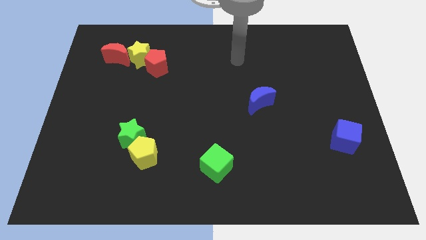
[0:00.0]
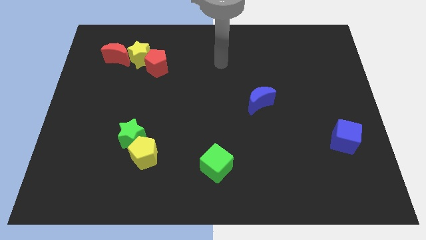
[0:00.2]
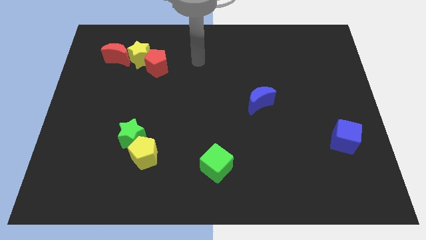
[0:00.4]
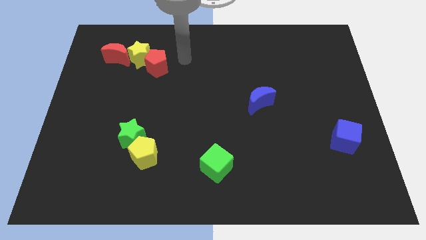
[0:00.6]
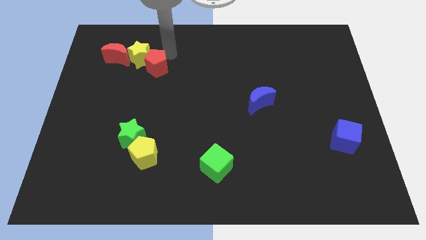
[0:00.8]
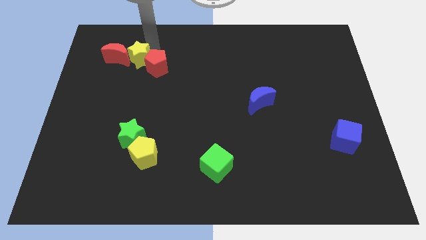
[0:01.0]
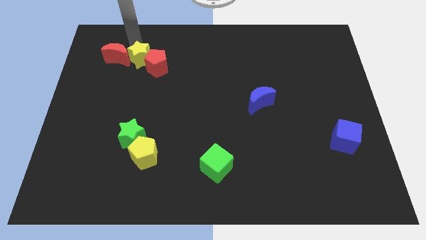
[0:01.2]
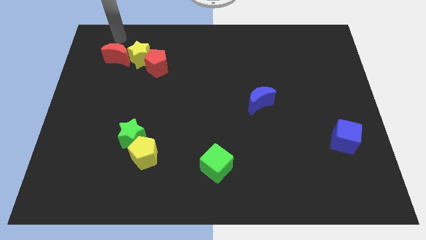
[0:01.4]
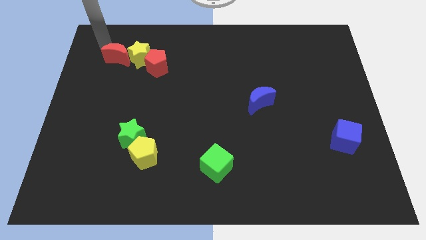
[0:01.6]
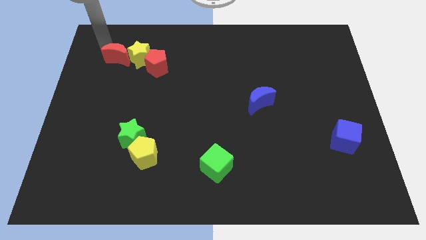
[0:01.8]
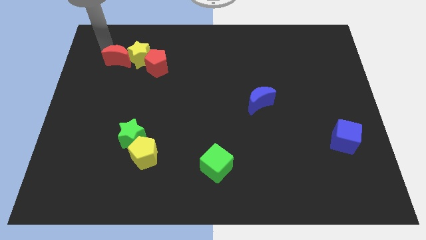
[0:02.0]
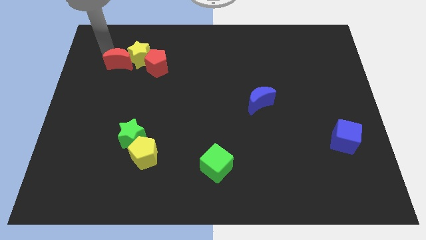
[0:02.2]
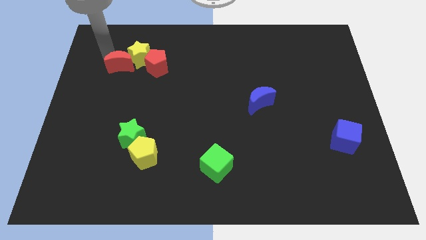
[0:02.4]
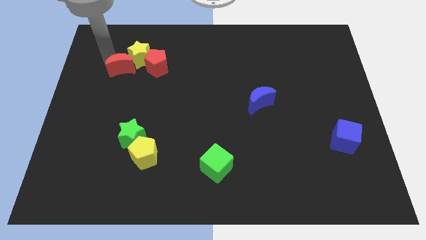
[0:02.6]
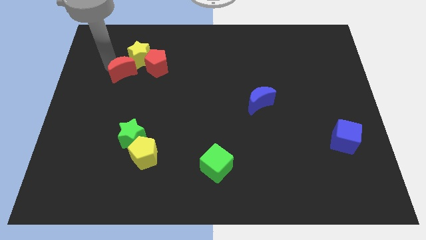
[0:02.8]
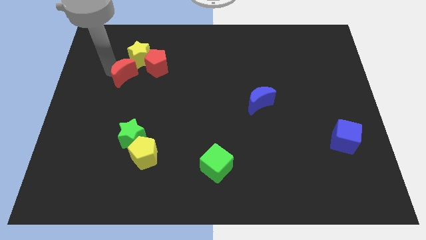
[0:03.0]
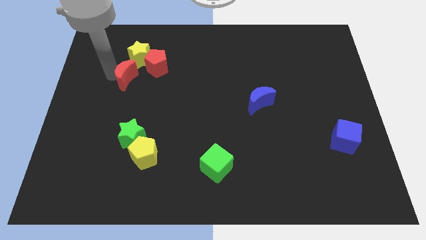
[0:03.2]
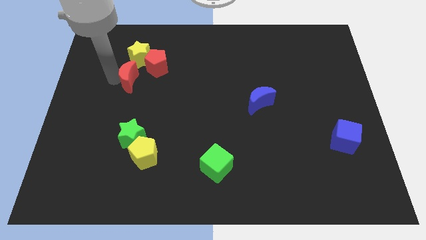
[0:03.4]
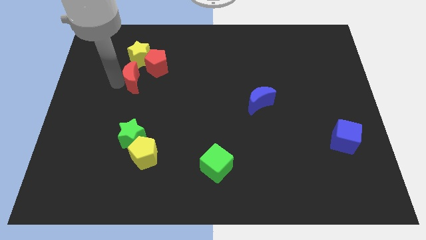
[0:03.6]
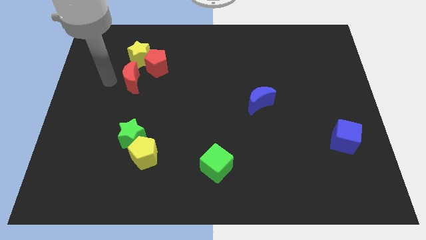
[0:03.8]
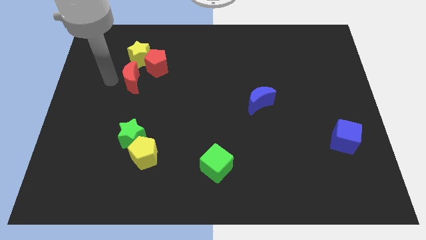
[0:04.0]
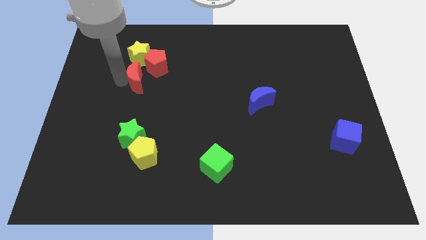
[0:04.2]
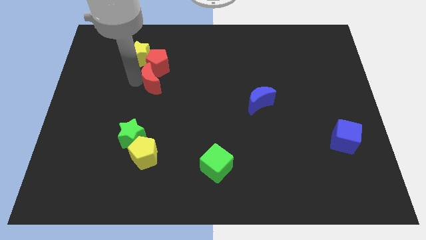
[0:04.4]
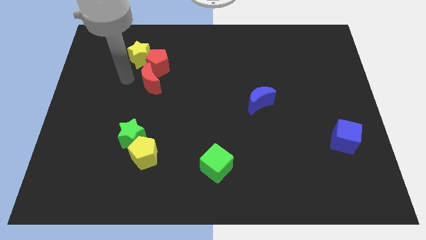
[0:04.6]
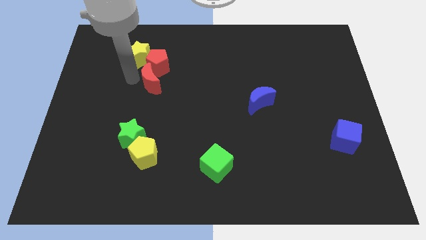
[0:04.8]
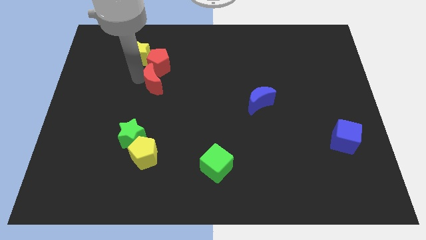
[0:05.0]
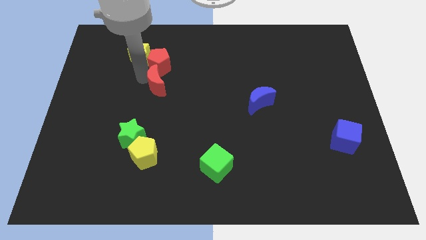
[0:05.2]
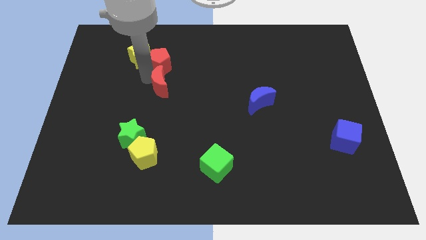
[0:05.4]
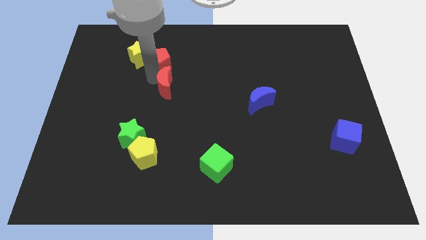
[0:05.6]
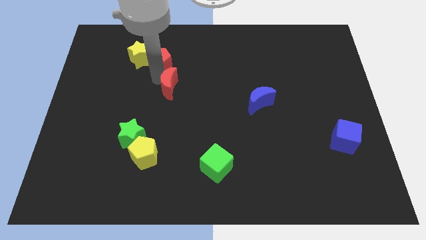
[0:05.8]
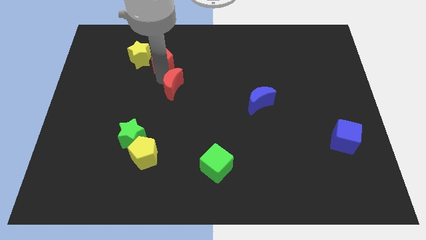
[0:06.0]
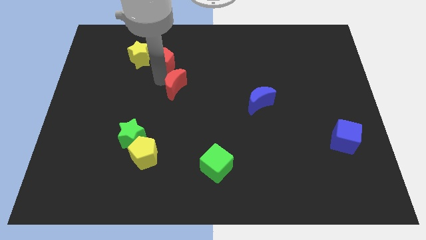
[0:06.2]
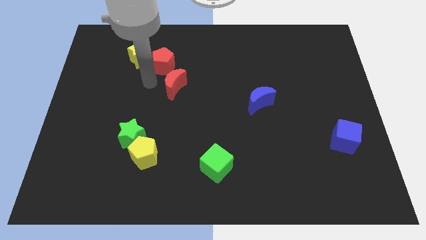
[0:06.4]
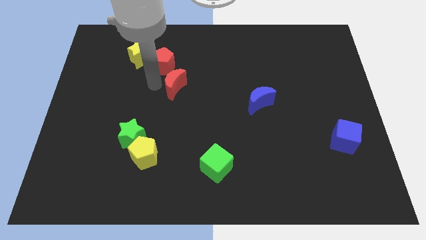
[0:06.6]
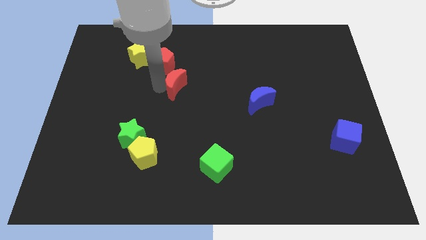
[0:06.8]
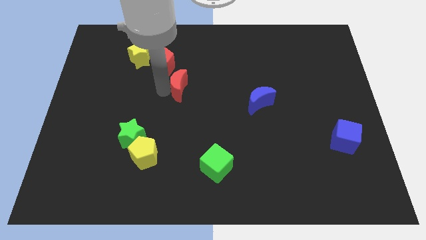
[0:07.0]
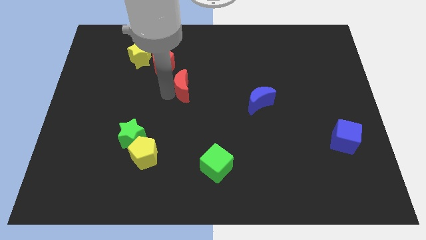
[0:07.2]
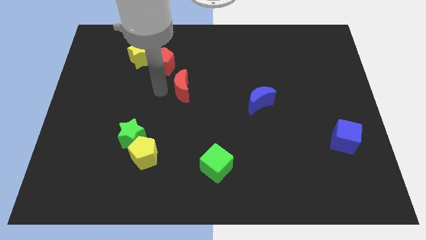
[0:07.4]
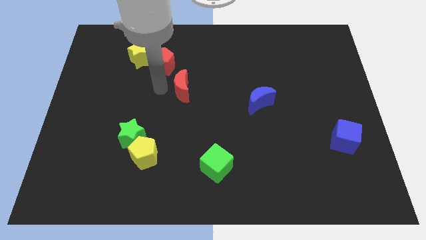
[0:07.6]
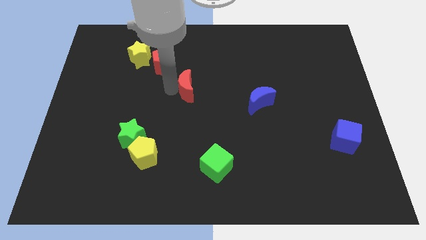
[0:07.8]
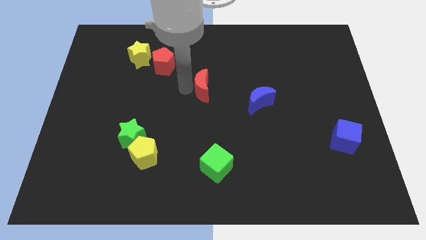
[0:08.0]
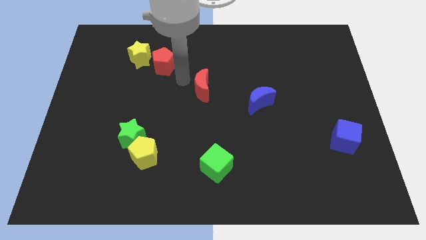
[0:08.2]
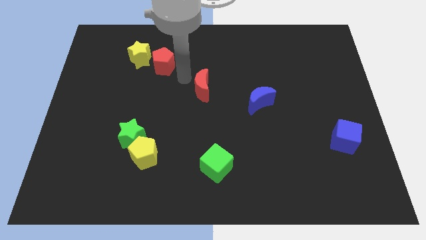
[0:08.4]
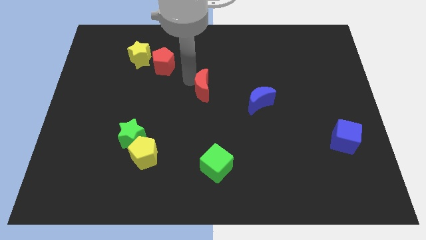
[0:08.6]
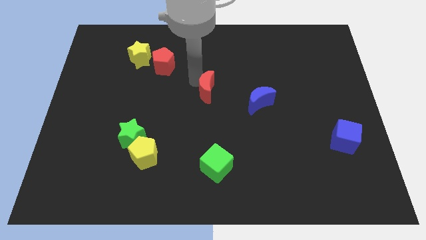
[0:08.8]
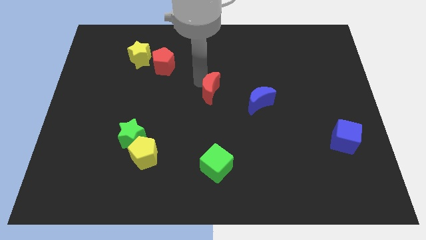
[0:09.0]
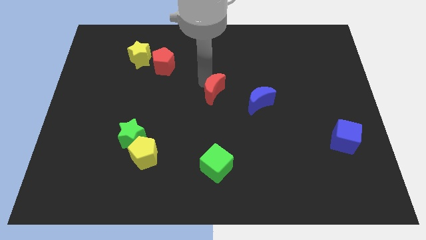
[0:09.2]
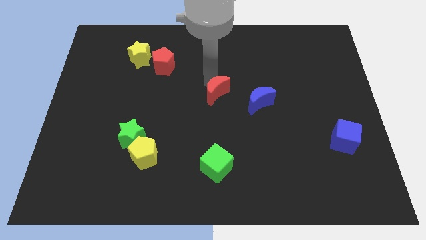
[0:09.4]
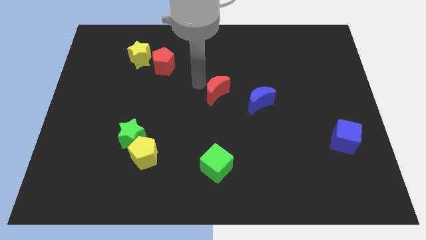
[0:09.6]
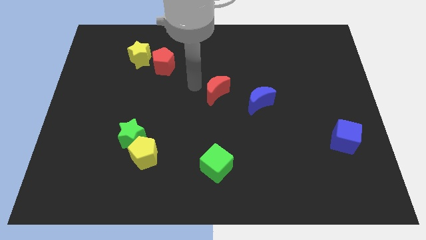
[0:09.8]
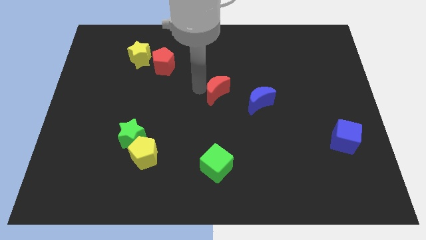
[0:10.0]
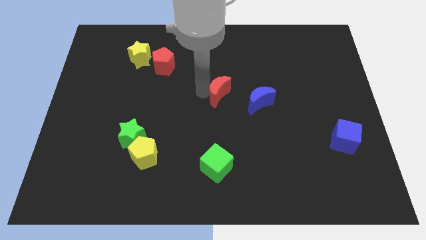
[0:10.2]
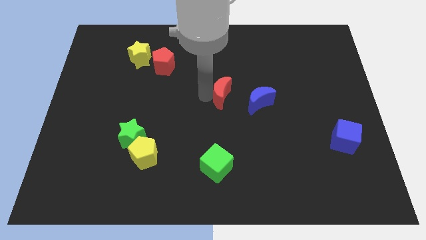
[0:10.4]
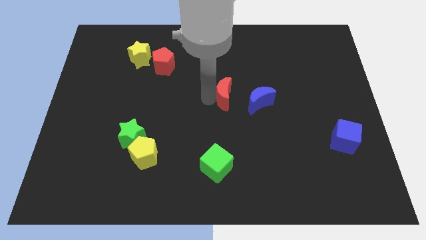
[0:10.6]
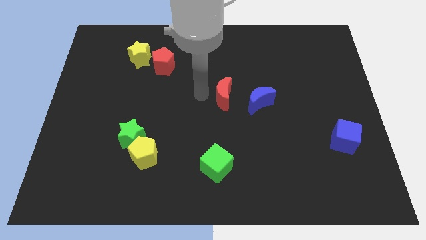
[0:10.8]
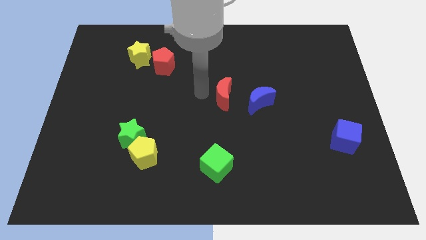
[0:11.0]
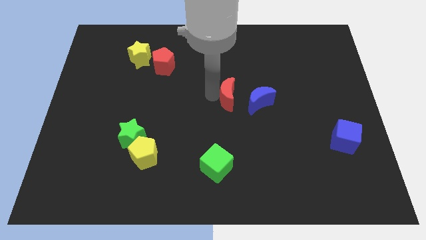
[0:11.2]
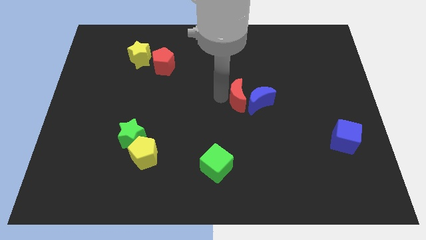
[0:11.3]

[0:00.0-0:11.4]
push the red moon close to the blue moon

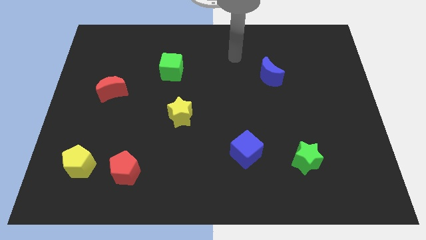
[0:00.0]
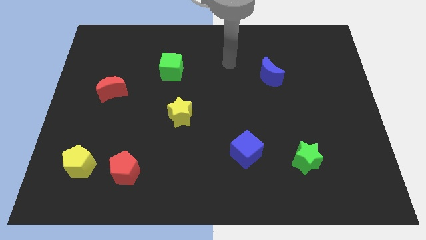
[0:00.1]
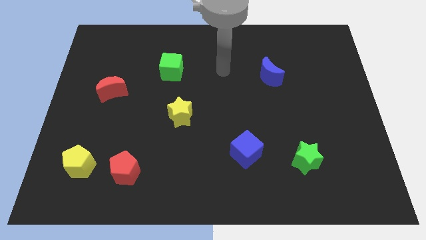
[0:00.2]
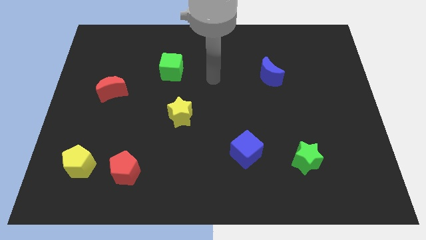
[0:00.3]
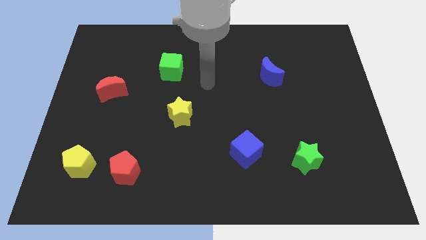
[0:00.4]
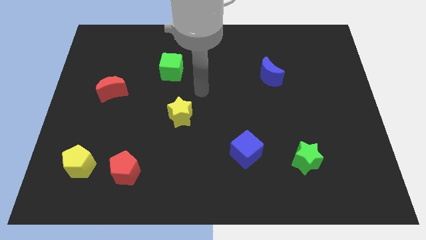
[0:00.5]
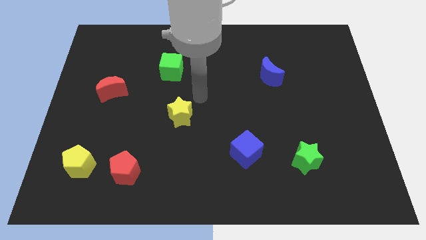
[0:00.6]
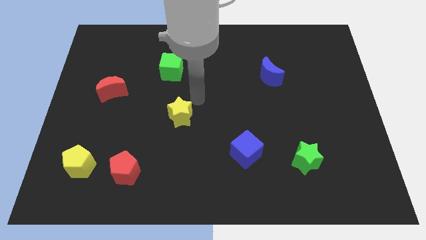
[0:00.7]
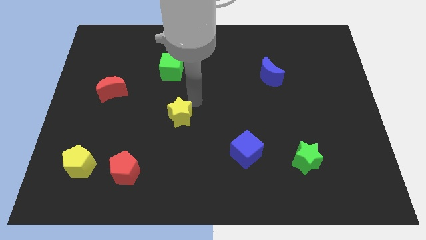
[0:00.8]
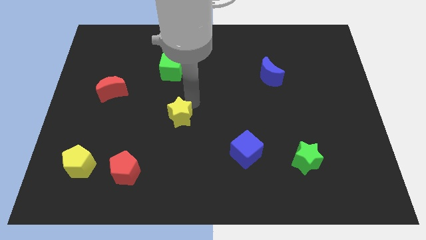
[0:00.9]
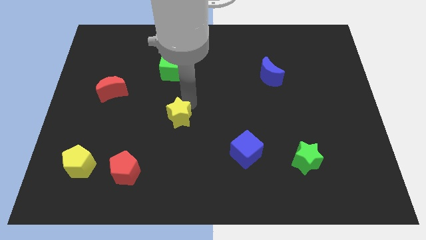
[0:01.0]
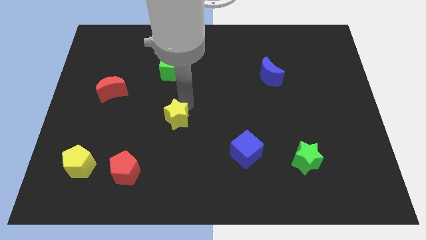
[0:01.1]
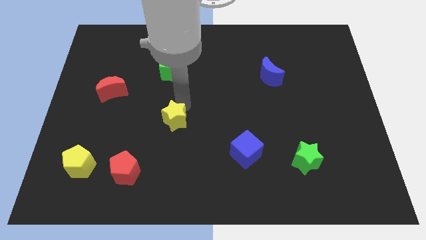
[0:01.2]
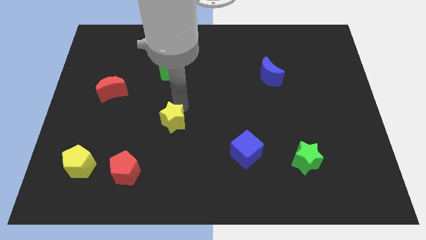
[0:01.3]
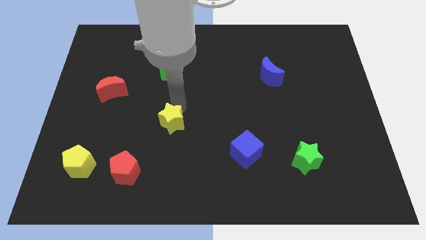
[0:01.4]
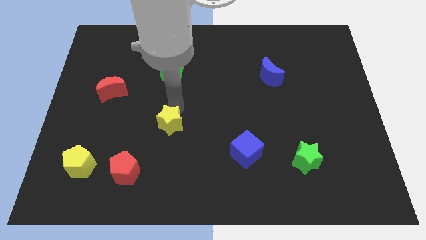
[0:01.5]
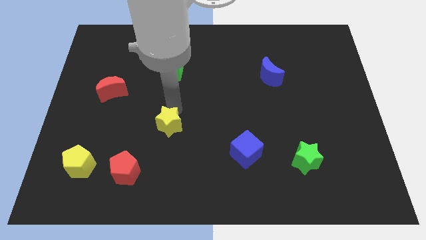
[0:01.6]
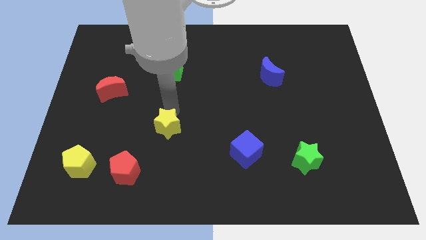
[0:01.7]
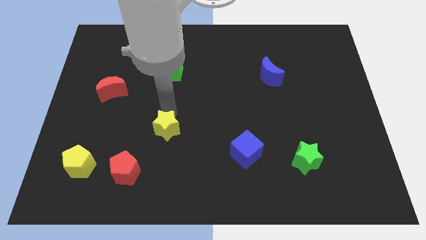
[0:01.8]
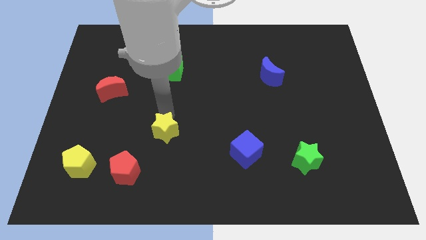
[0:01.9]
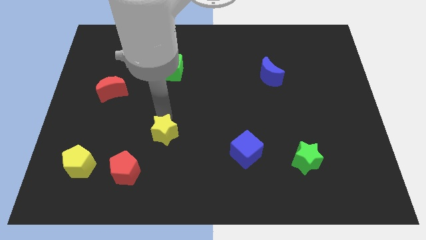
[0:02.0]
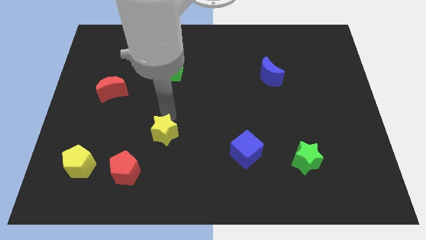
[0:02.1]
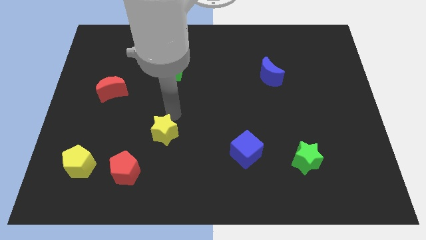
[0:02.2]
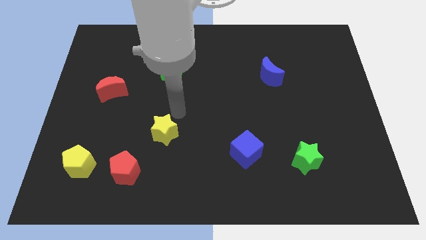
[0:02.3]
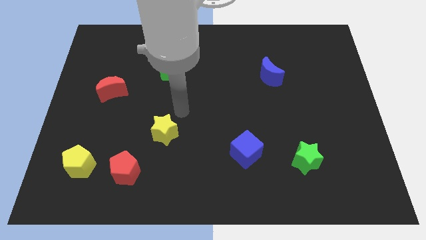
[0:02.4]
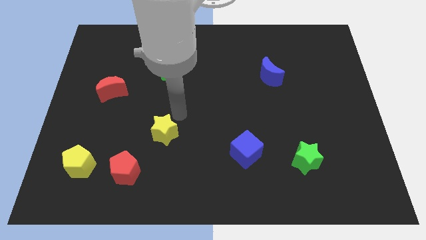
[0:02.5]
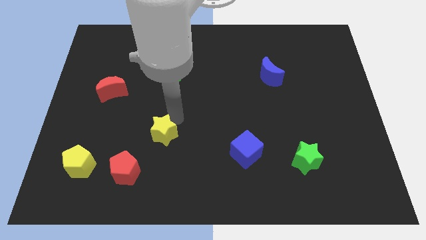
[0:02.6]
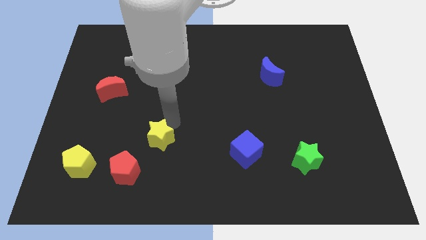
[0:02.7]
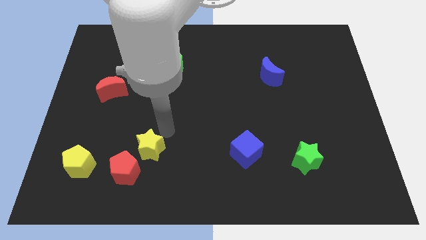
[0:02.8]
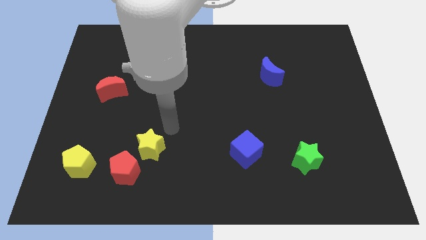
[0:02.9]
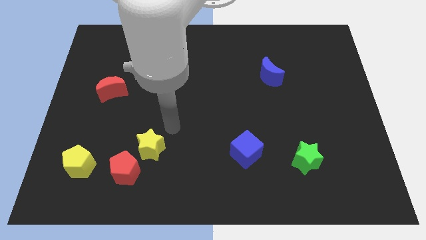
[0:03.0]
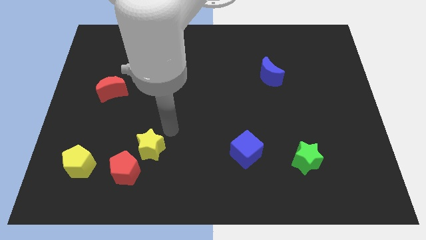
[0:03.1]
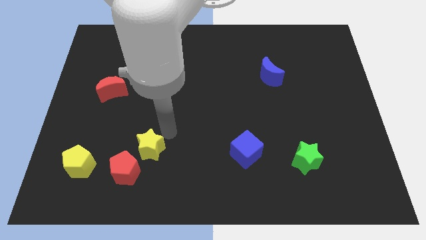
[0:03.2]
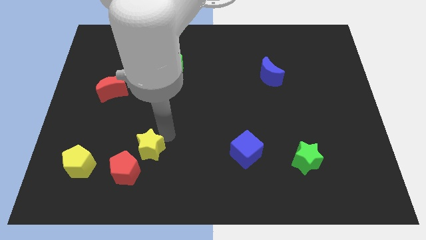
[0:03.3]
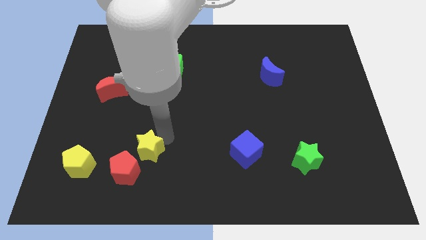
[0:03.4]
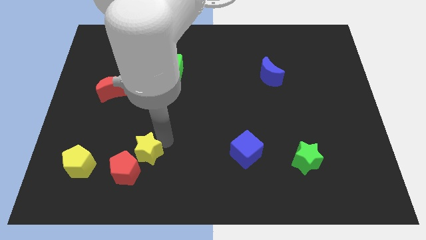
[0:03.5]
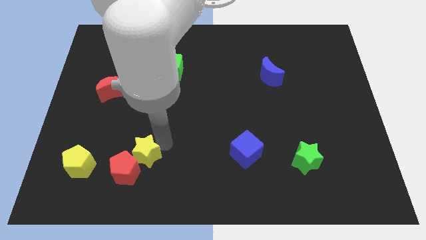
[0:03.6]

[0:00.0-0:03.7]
slide the yellow star close to the red pentagon
